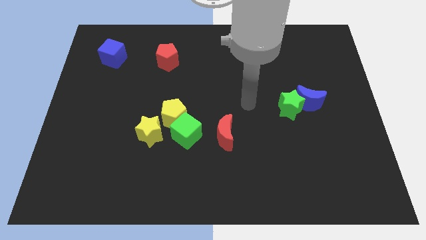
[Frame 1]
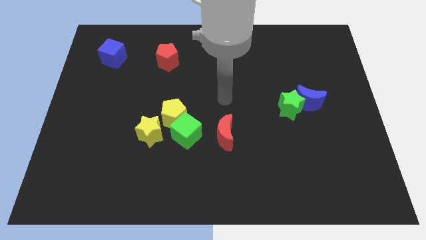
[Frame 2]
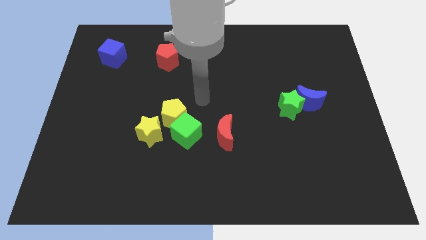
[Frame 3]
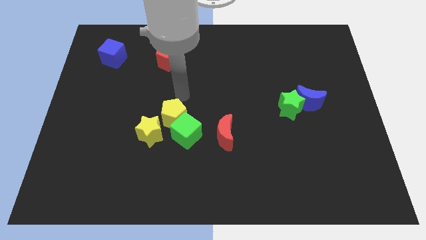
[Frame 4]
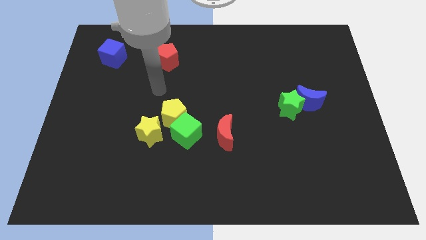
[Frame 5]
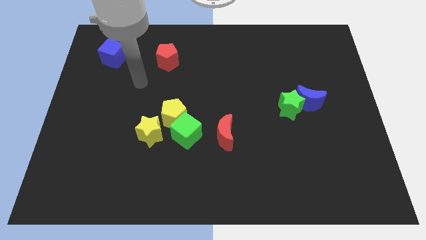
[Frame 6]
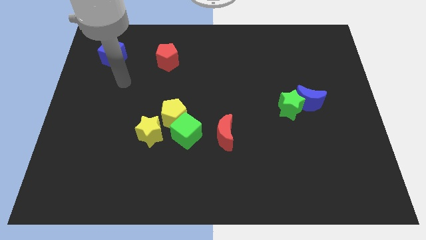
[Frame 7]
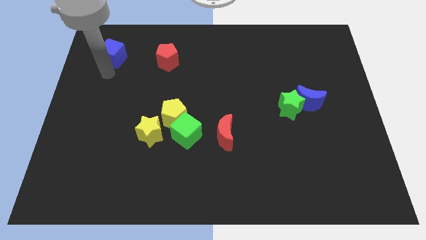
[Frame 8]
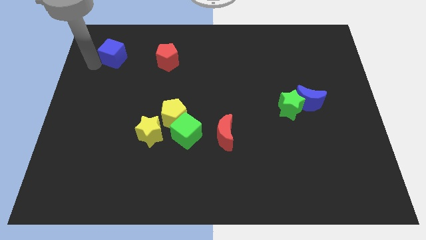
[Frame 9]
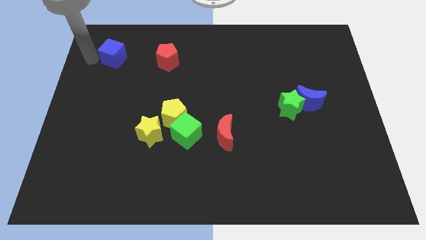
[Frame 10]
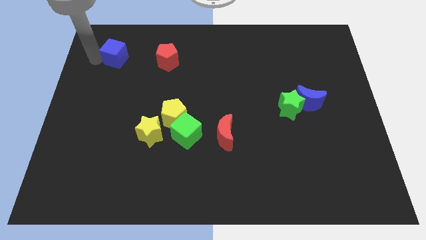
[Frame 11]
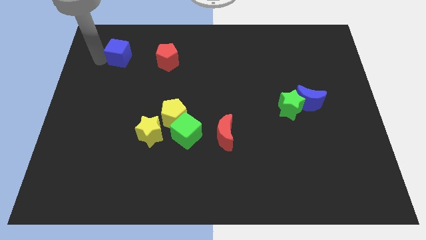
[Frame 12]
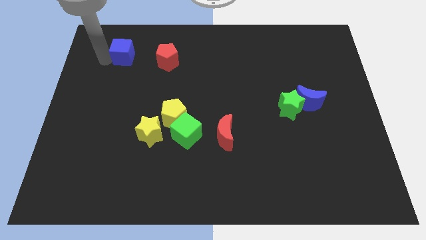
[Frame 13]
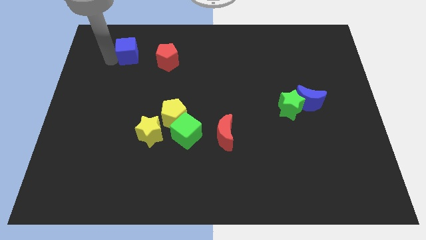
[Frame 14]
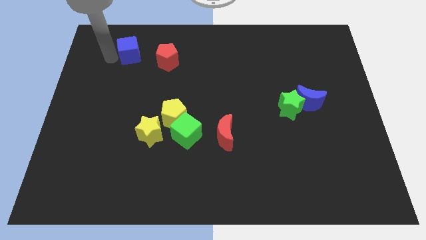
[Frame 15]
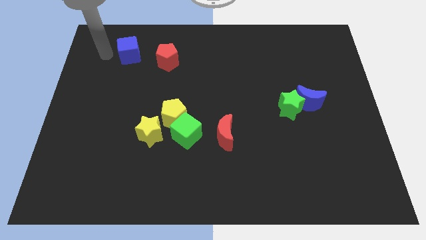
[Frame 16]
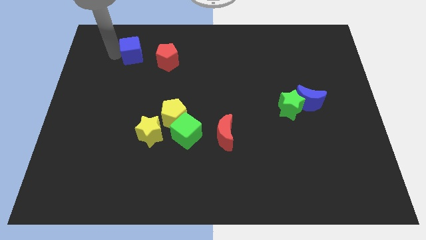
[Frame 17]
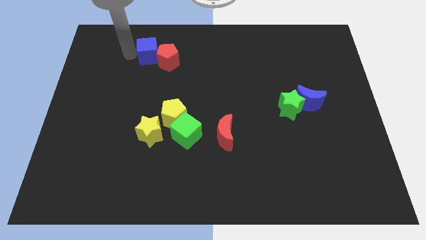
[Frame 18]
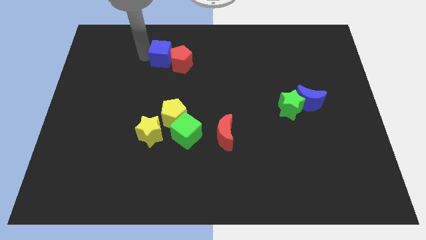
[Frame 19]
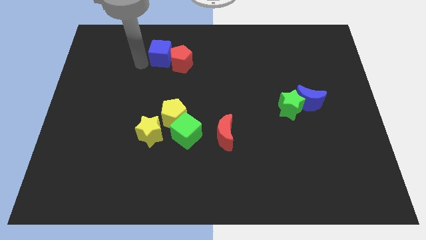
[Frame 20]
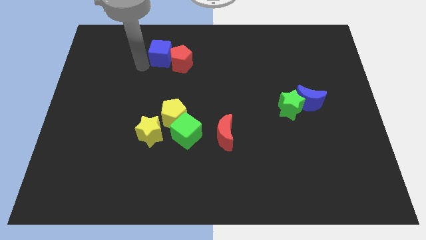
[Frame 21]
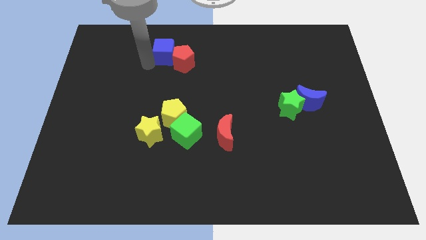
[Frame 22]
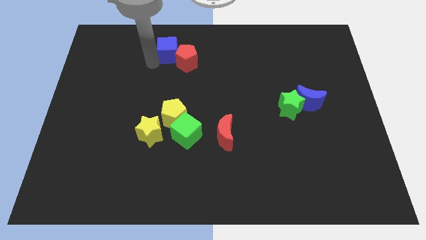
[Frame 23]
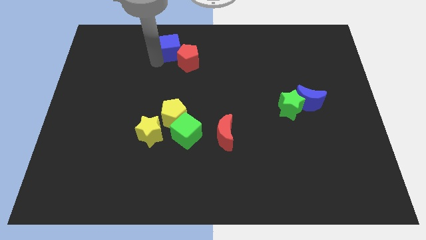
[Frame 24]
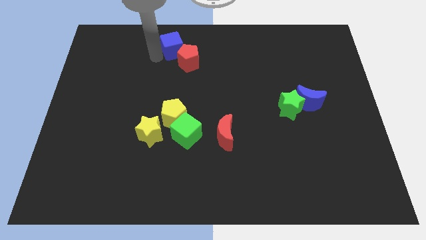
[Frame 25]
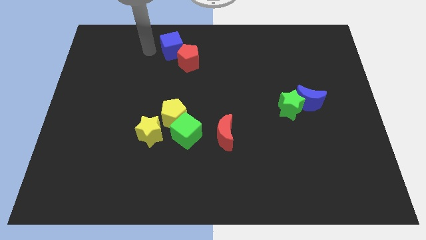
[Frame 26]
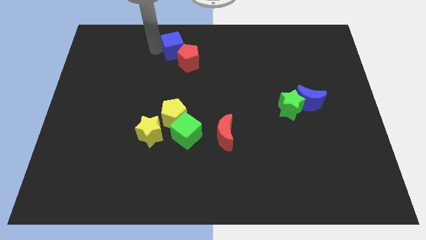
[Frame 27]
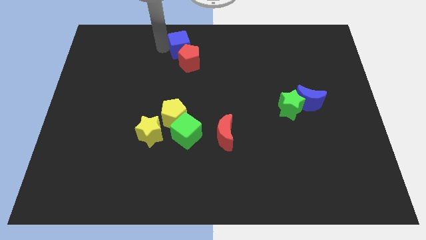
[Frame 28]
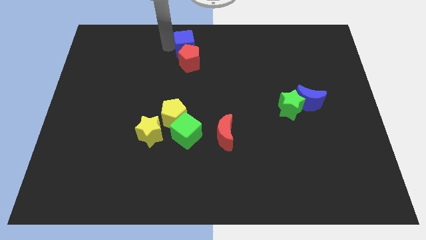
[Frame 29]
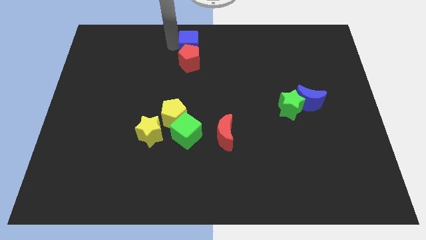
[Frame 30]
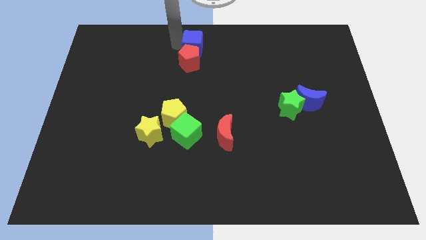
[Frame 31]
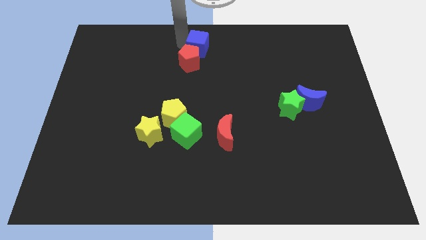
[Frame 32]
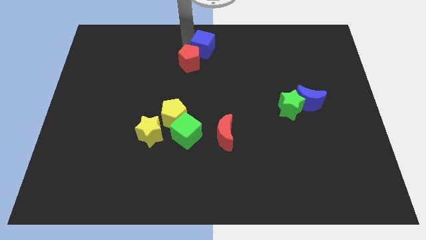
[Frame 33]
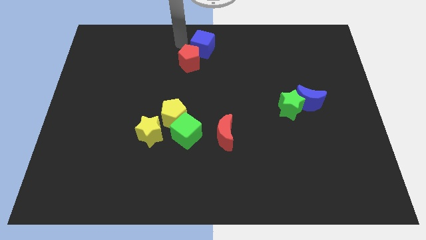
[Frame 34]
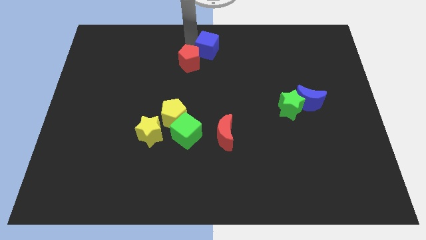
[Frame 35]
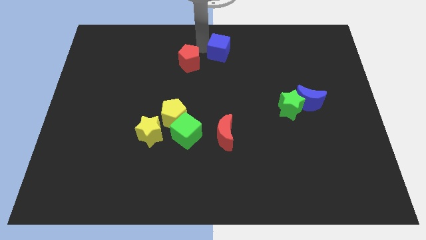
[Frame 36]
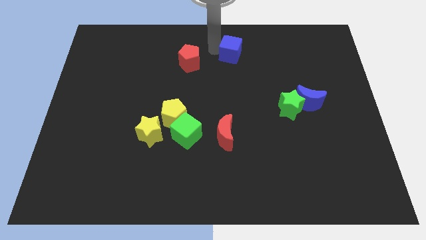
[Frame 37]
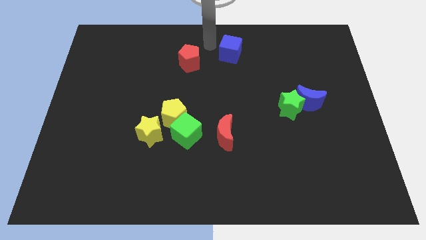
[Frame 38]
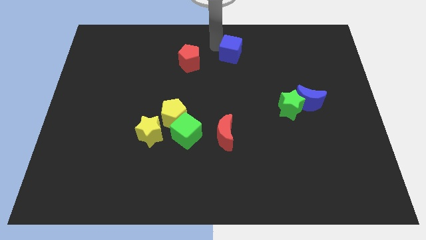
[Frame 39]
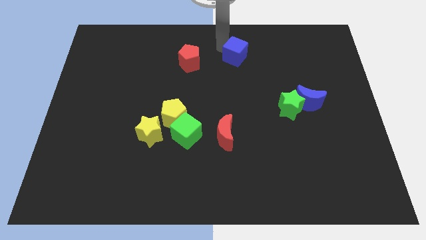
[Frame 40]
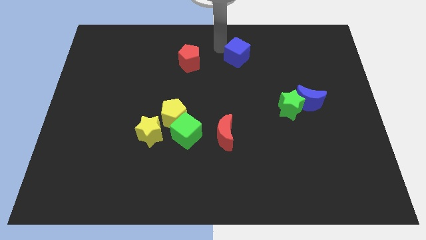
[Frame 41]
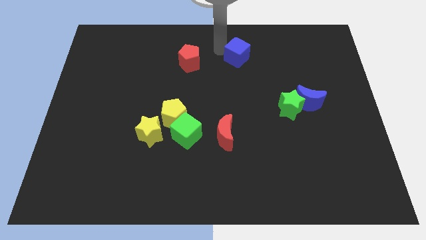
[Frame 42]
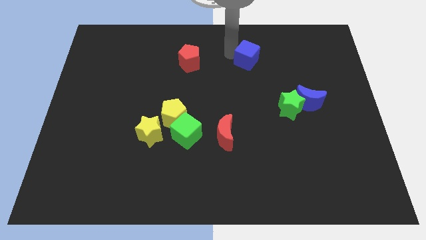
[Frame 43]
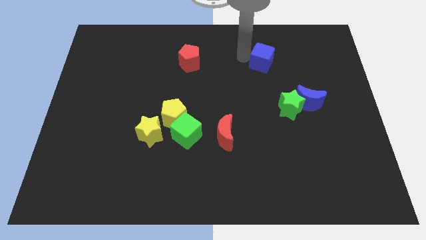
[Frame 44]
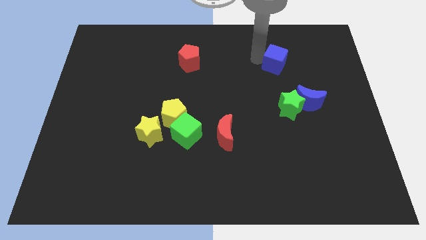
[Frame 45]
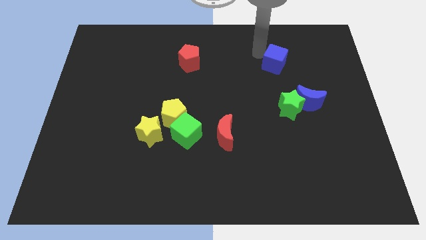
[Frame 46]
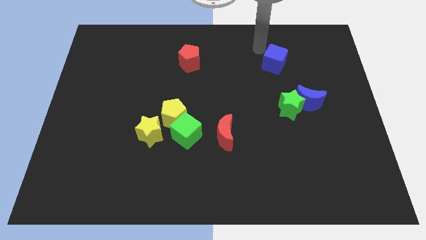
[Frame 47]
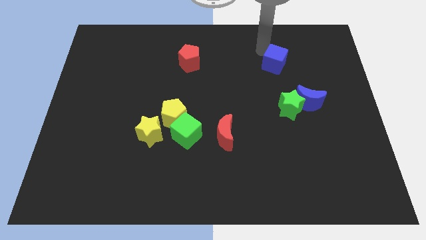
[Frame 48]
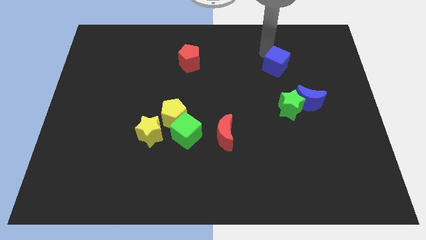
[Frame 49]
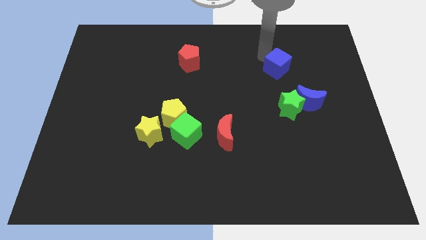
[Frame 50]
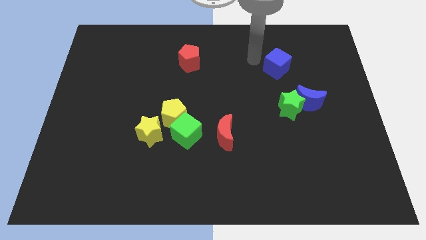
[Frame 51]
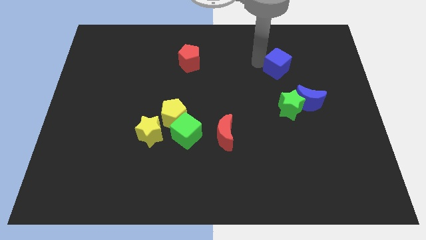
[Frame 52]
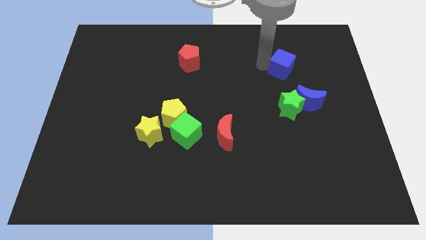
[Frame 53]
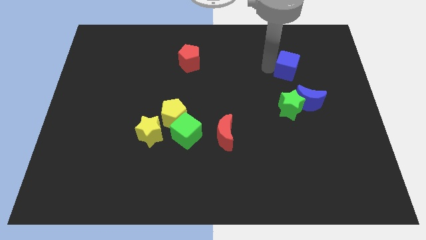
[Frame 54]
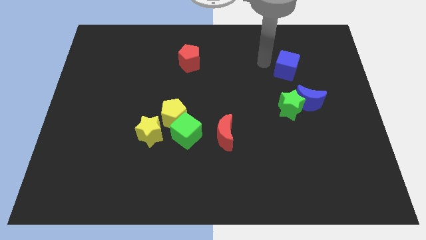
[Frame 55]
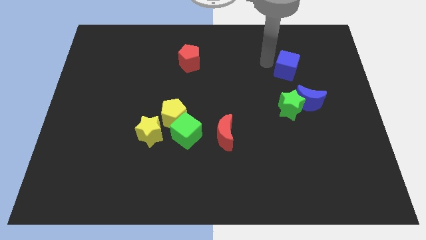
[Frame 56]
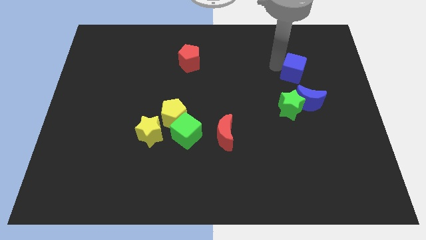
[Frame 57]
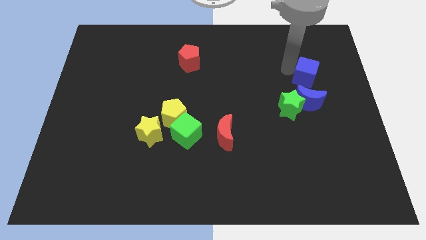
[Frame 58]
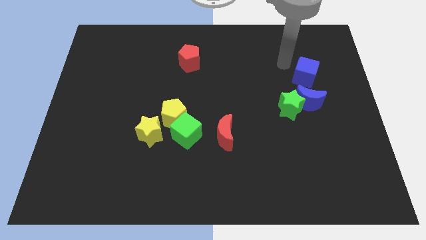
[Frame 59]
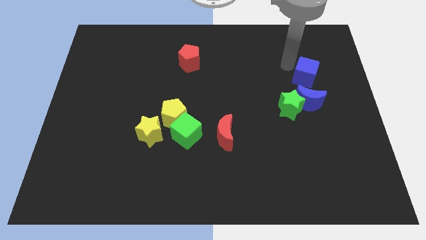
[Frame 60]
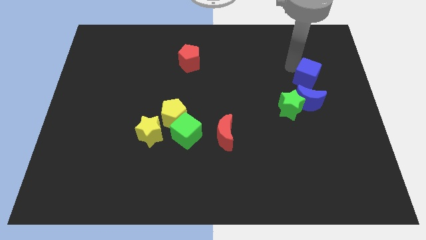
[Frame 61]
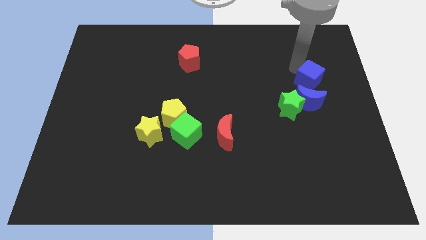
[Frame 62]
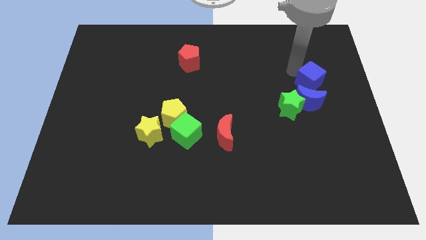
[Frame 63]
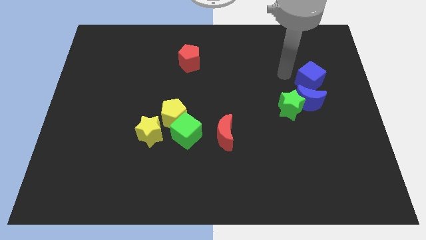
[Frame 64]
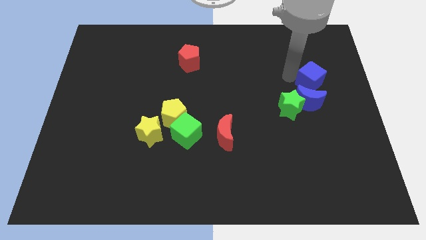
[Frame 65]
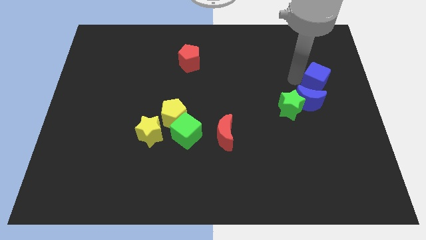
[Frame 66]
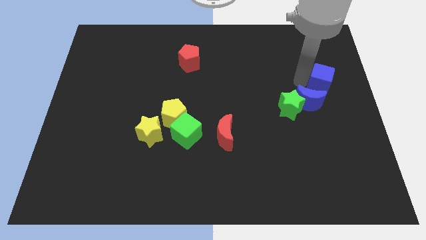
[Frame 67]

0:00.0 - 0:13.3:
put the blue cube to the right side of the board
